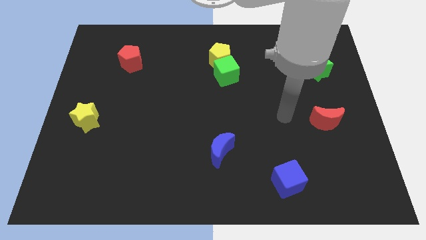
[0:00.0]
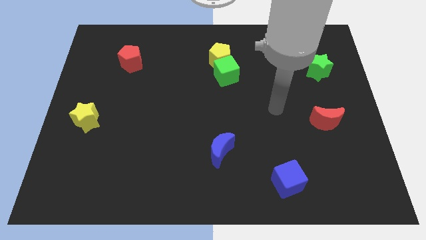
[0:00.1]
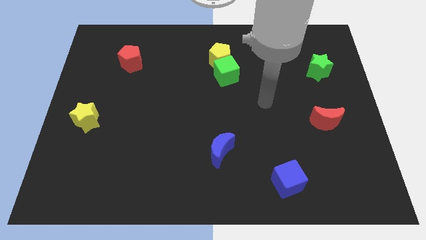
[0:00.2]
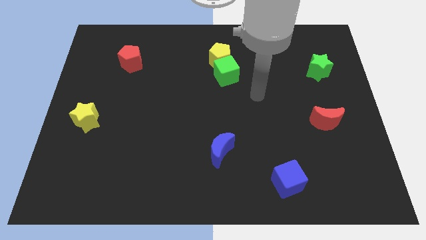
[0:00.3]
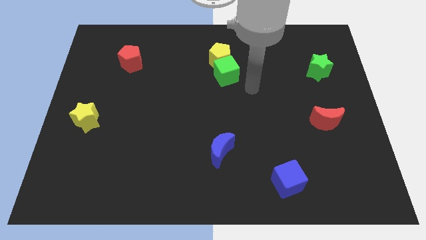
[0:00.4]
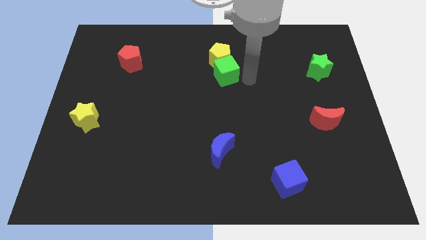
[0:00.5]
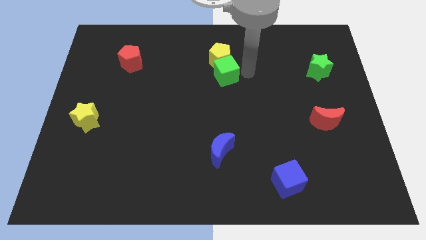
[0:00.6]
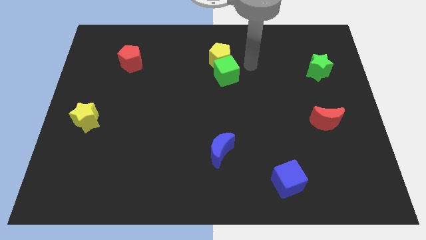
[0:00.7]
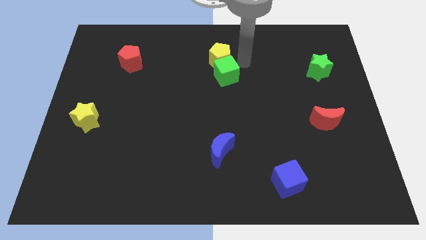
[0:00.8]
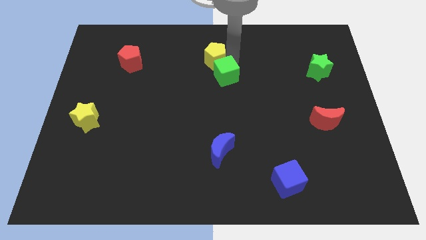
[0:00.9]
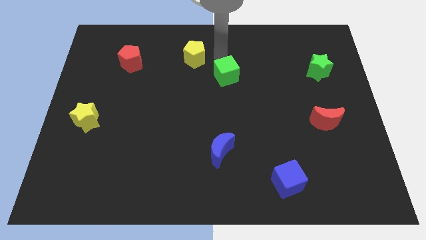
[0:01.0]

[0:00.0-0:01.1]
move the green cube away from the yellow pentagon

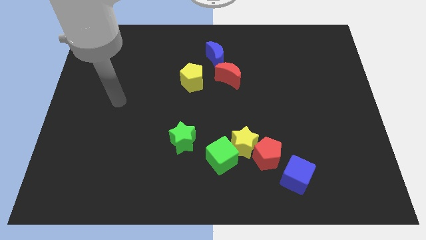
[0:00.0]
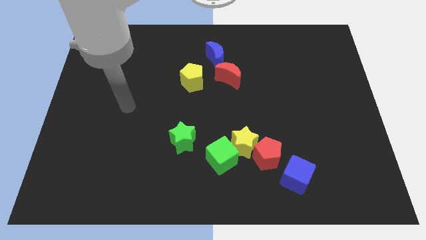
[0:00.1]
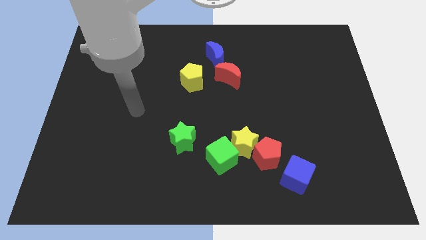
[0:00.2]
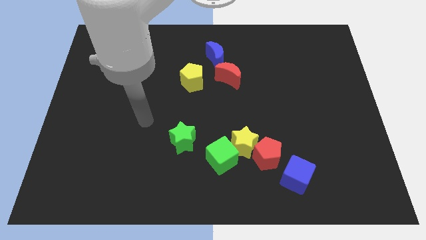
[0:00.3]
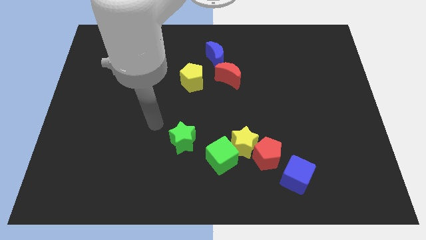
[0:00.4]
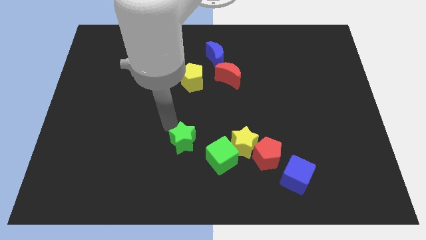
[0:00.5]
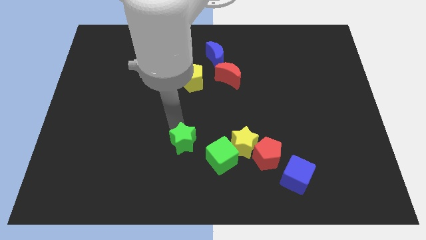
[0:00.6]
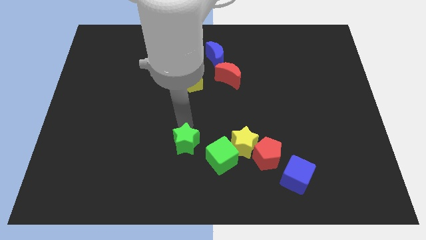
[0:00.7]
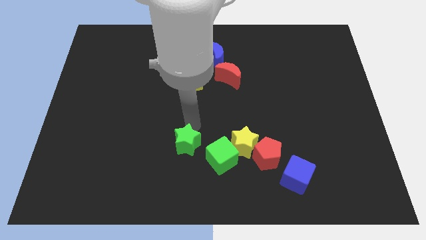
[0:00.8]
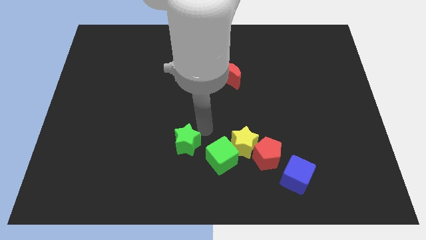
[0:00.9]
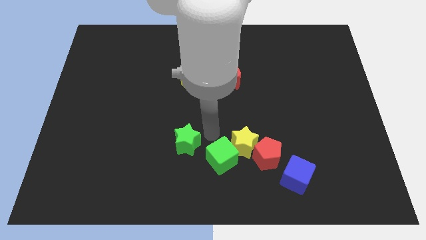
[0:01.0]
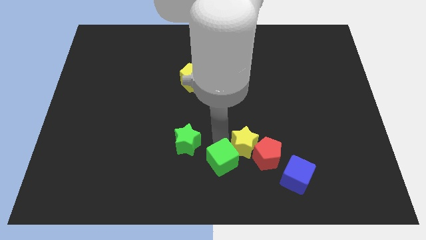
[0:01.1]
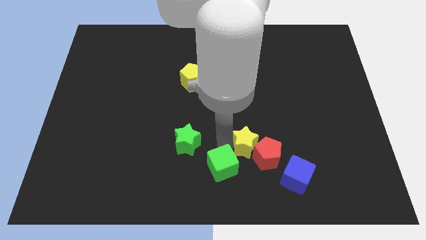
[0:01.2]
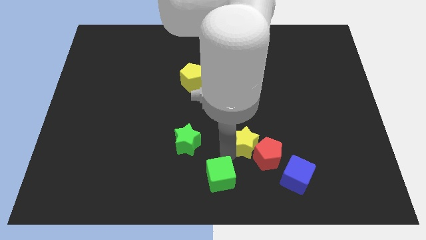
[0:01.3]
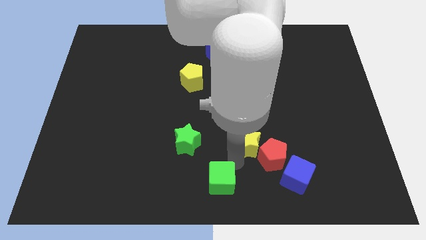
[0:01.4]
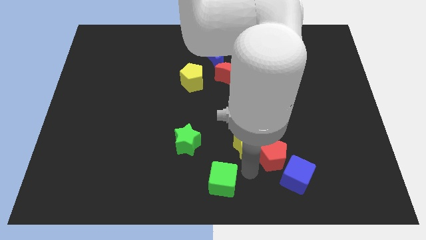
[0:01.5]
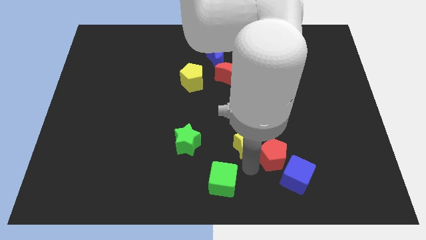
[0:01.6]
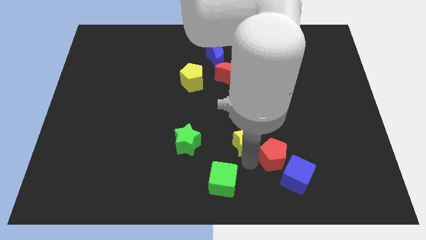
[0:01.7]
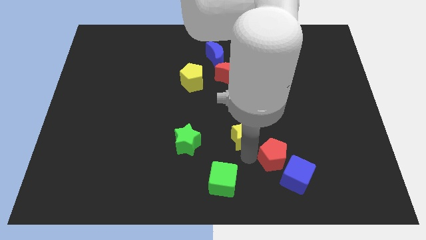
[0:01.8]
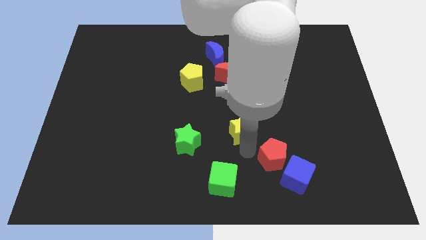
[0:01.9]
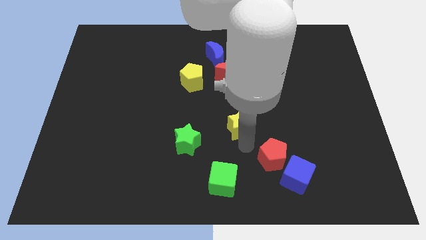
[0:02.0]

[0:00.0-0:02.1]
separate the yellow star from the red pentagon and green cube

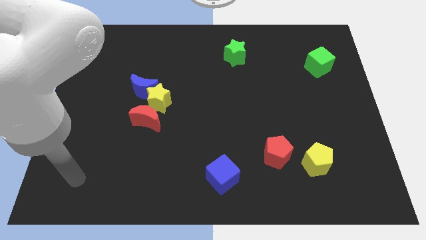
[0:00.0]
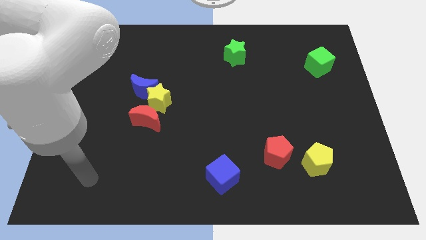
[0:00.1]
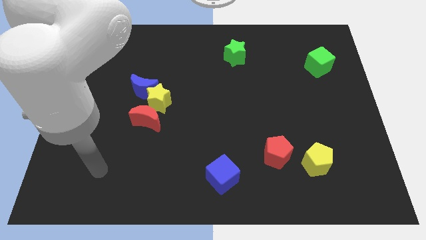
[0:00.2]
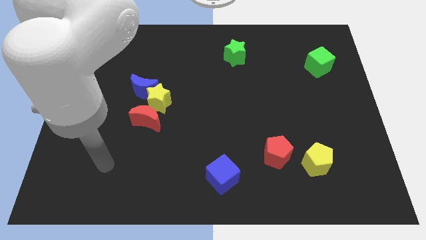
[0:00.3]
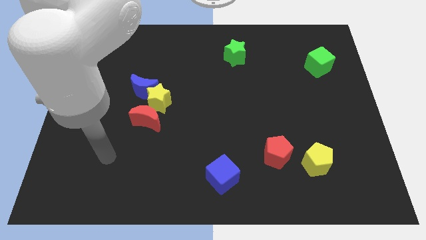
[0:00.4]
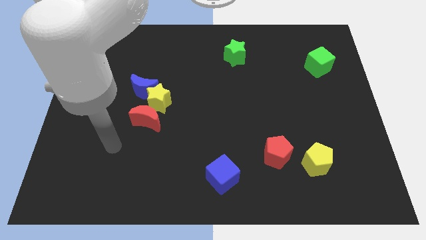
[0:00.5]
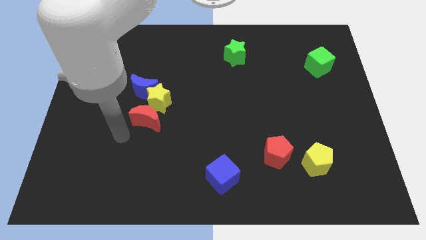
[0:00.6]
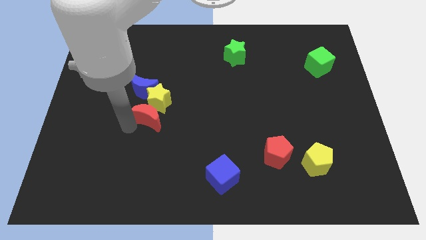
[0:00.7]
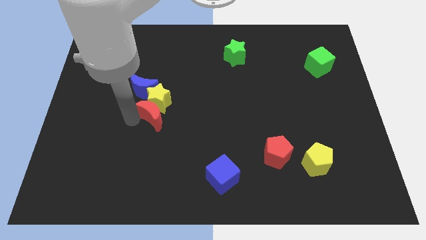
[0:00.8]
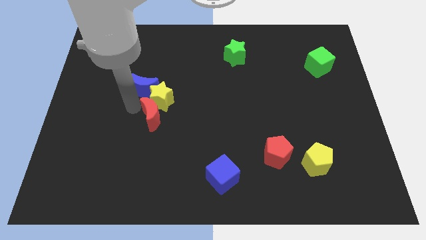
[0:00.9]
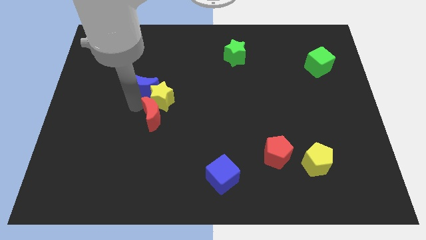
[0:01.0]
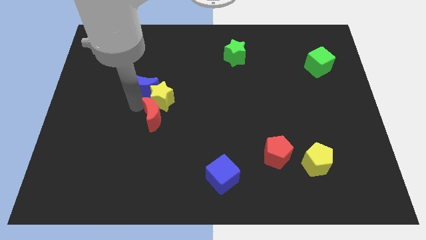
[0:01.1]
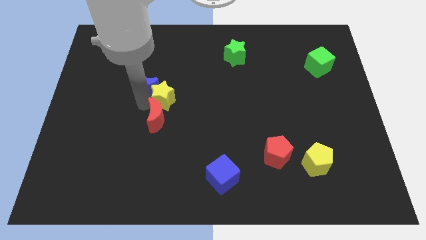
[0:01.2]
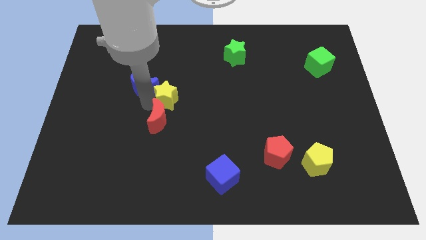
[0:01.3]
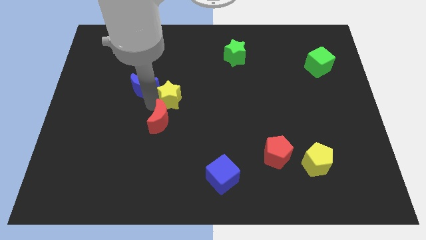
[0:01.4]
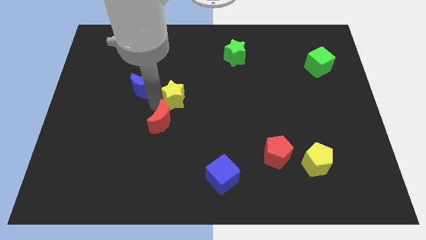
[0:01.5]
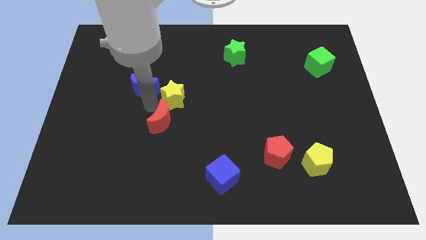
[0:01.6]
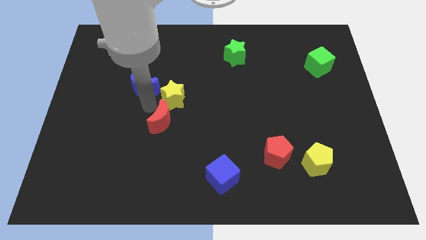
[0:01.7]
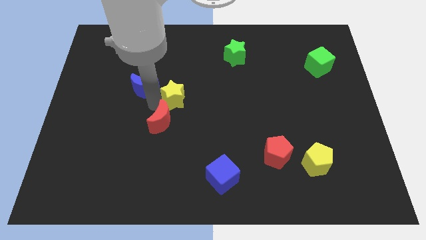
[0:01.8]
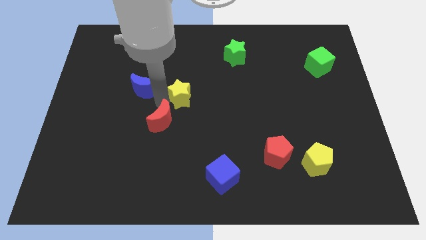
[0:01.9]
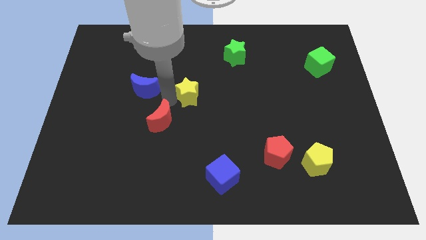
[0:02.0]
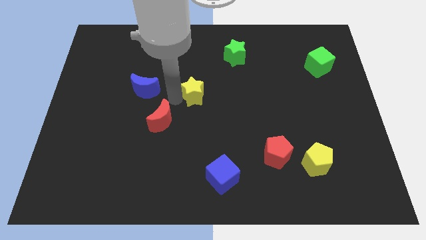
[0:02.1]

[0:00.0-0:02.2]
pull the yellow star apart from the blue moon and red moon

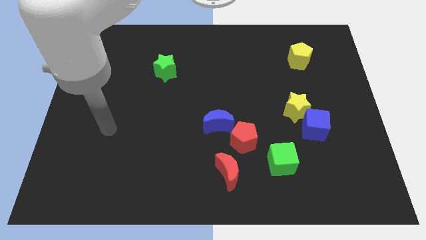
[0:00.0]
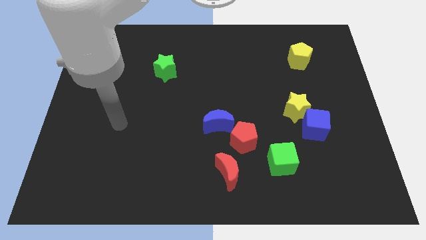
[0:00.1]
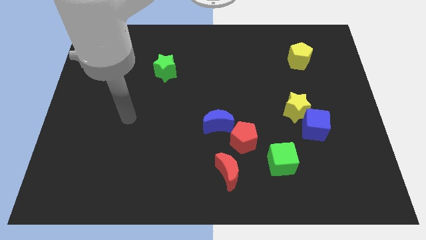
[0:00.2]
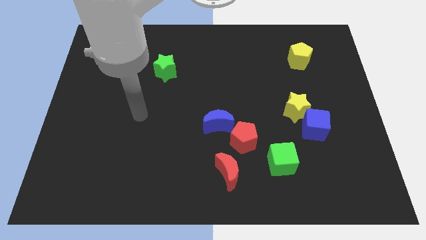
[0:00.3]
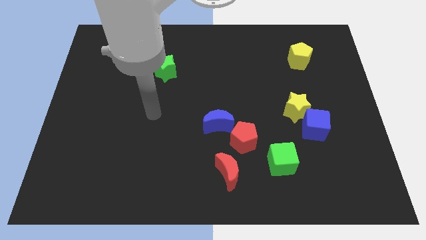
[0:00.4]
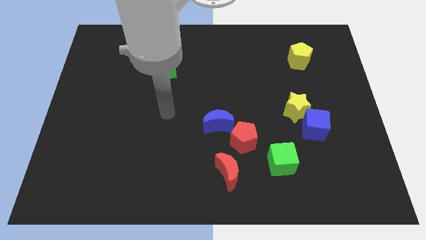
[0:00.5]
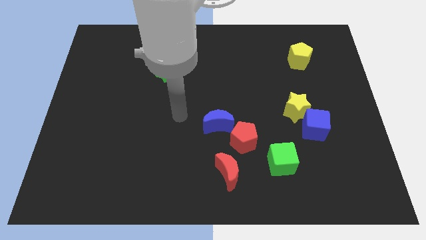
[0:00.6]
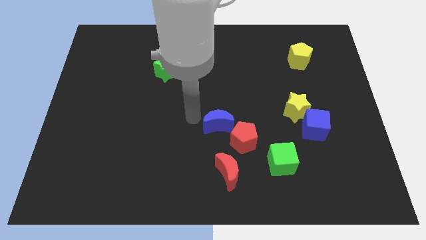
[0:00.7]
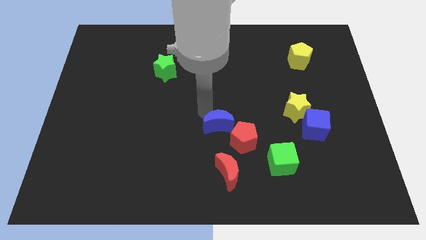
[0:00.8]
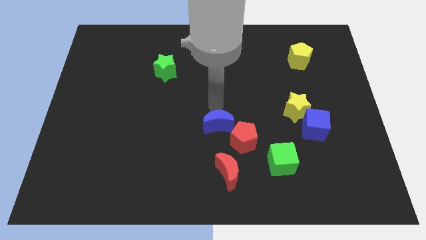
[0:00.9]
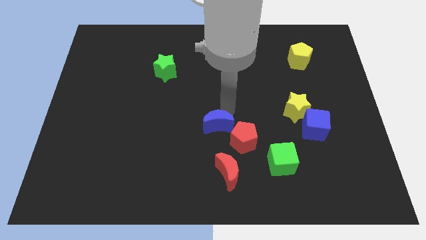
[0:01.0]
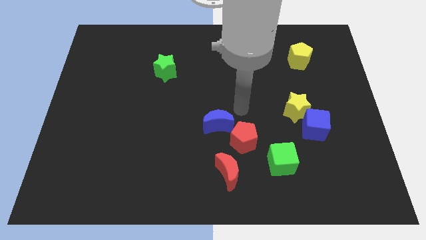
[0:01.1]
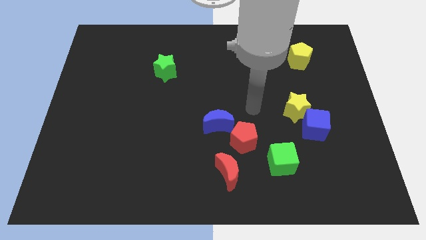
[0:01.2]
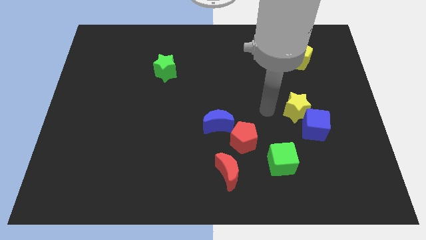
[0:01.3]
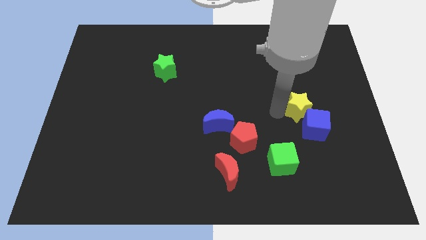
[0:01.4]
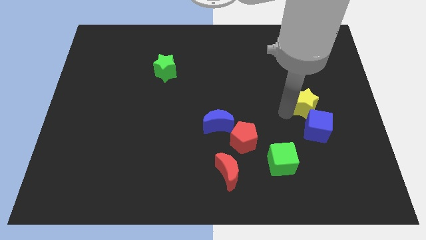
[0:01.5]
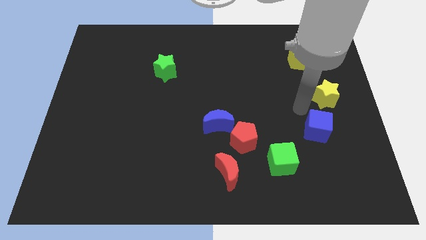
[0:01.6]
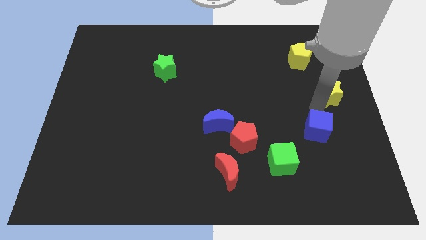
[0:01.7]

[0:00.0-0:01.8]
separate the blue cube from the yellow star

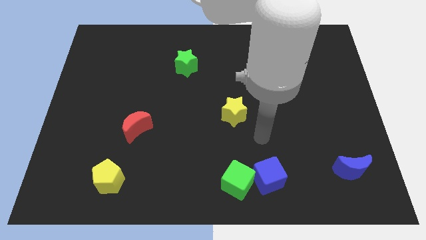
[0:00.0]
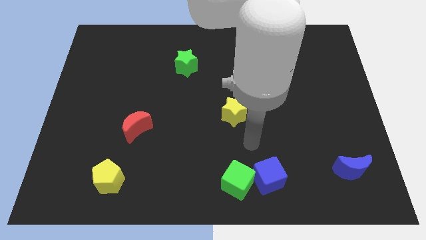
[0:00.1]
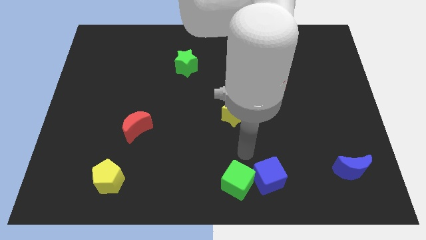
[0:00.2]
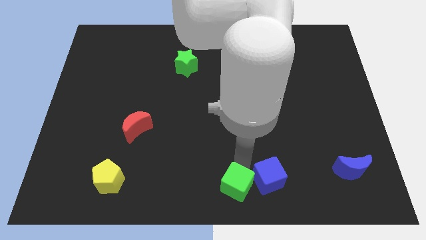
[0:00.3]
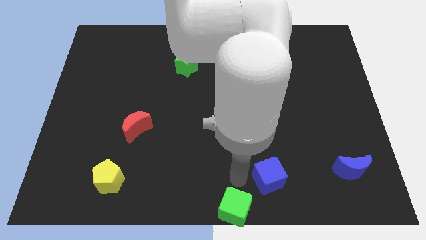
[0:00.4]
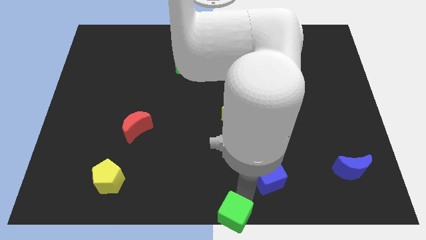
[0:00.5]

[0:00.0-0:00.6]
pull the blue cube apart from the green cube

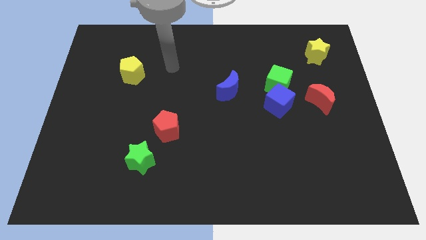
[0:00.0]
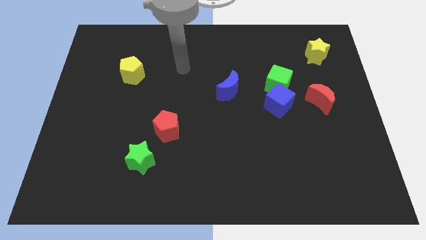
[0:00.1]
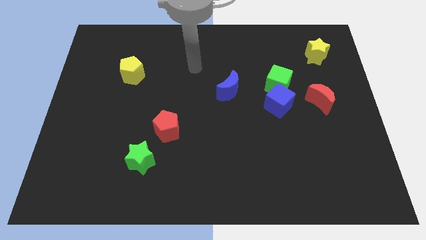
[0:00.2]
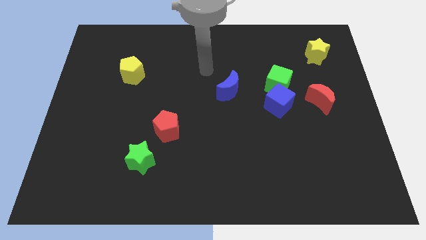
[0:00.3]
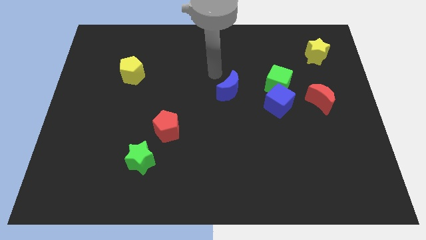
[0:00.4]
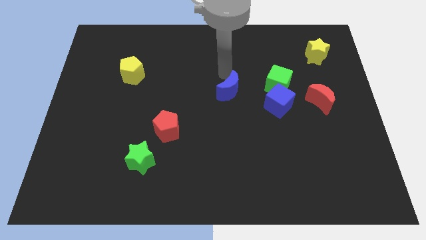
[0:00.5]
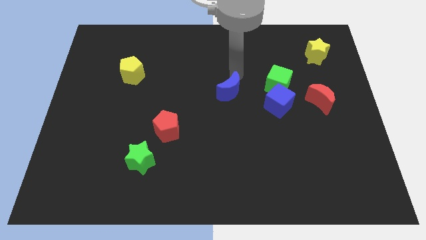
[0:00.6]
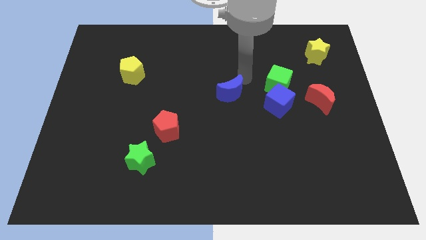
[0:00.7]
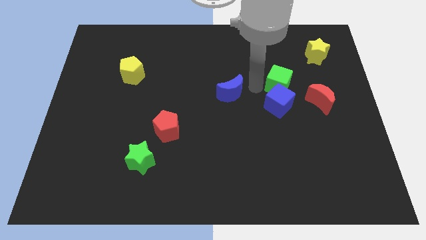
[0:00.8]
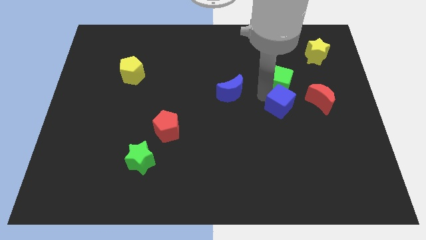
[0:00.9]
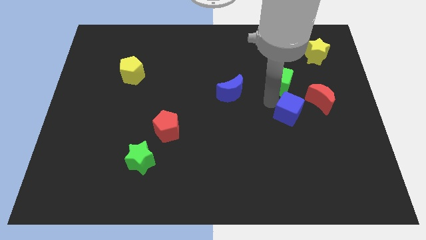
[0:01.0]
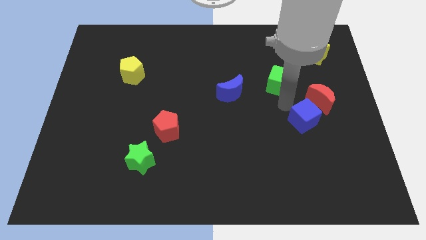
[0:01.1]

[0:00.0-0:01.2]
separate the green cube from the blue cube

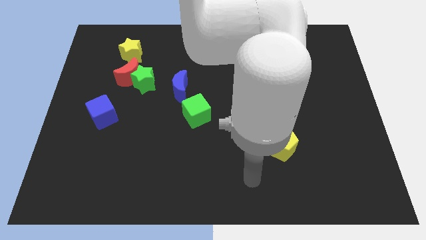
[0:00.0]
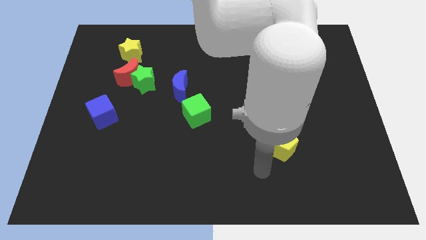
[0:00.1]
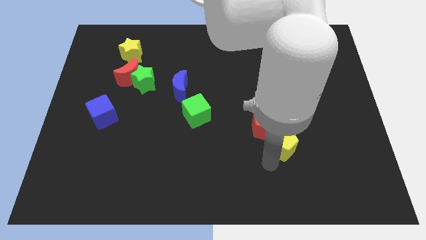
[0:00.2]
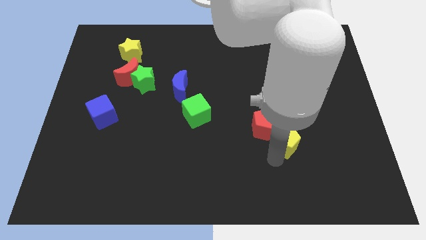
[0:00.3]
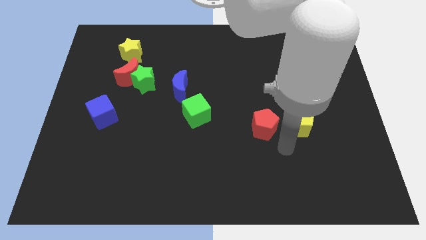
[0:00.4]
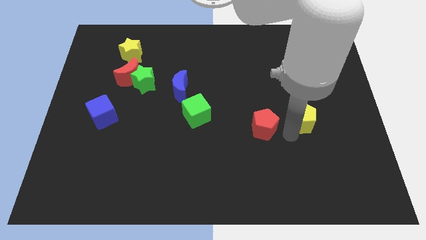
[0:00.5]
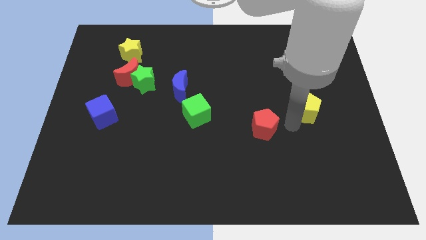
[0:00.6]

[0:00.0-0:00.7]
move the red pentagon away from the yellow pentagon
